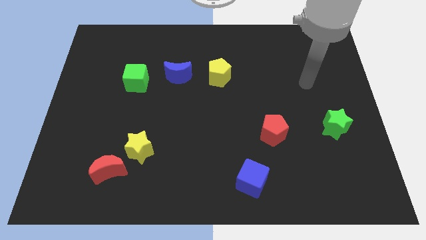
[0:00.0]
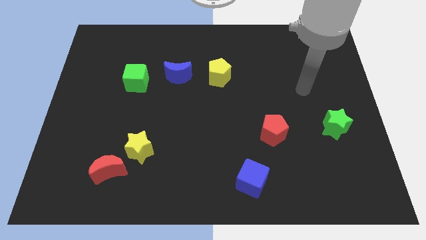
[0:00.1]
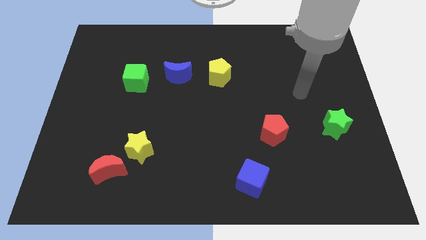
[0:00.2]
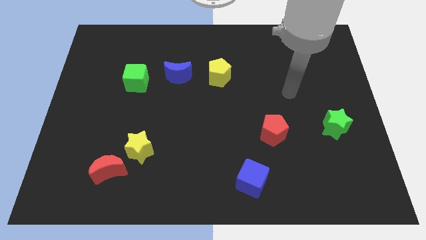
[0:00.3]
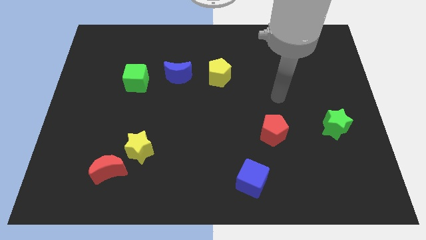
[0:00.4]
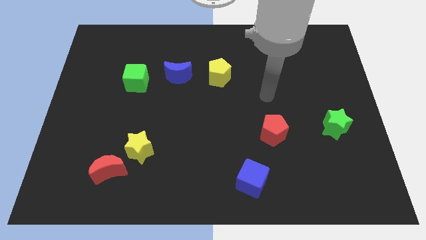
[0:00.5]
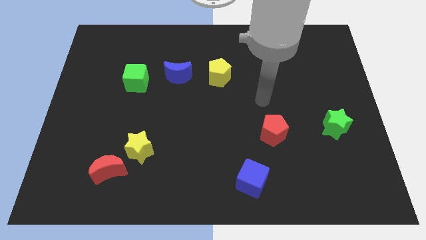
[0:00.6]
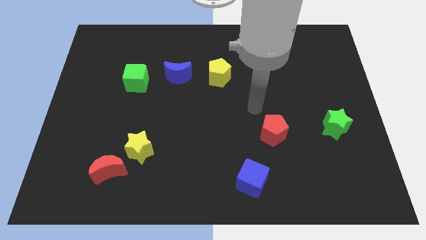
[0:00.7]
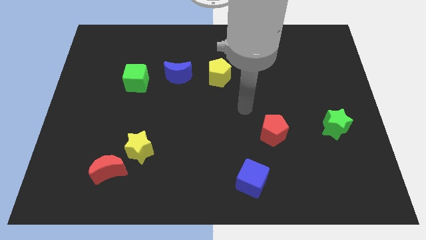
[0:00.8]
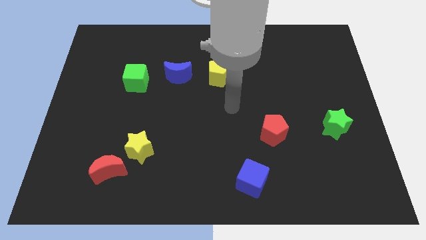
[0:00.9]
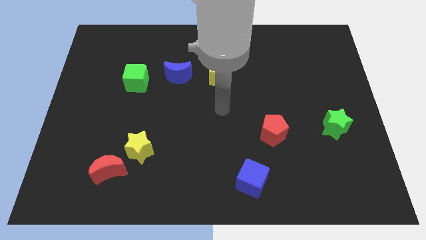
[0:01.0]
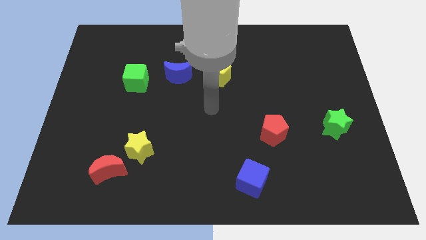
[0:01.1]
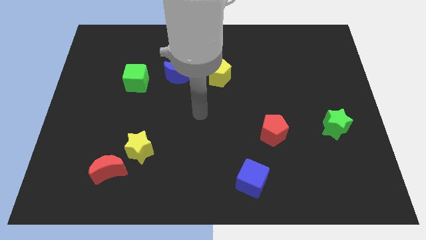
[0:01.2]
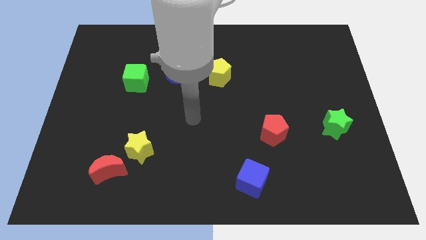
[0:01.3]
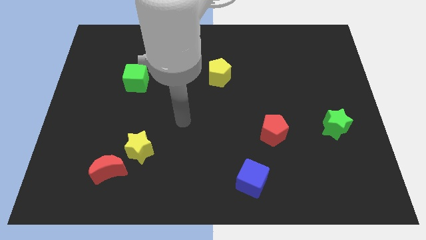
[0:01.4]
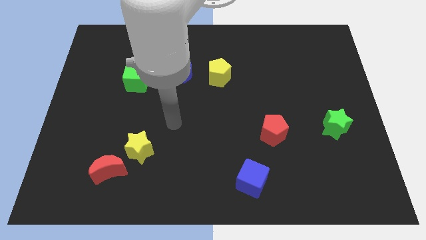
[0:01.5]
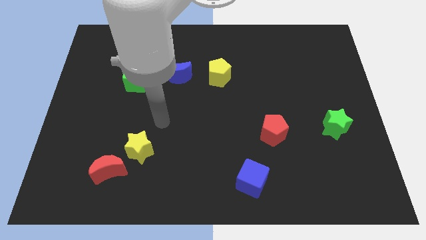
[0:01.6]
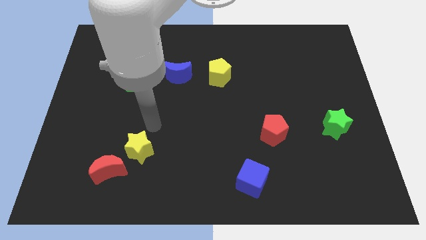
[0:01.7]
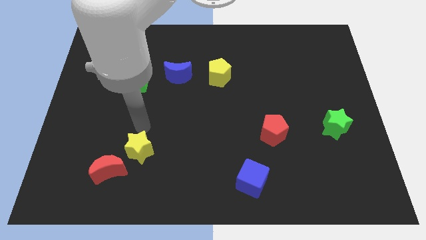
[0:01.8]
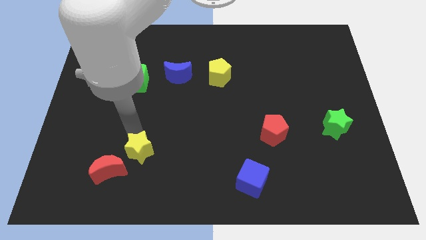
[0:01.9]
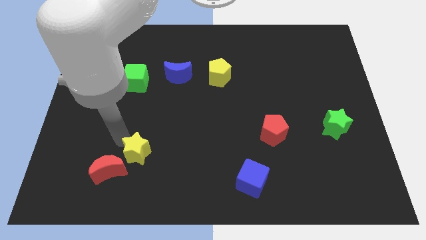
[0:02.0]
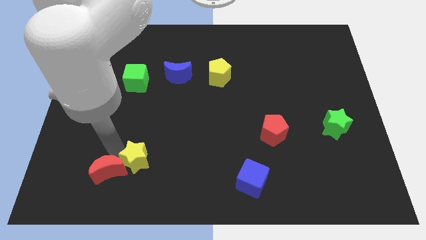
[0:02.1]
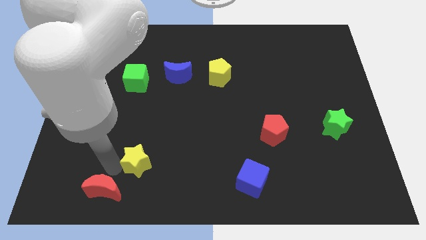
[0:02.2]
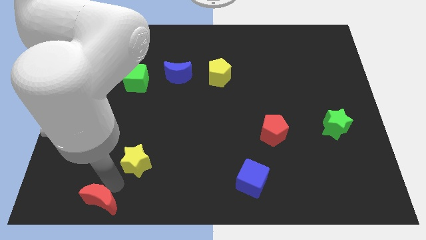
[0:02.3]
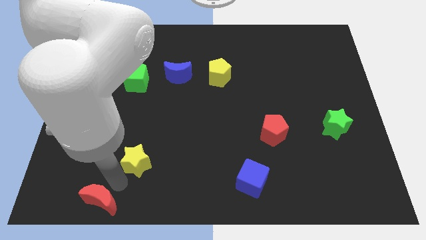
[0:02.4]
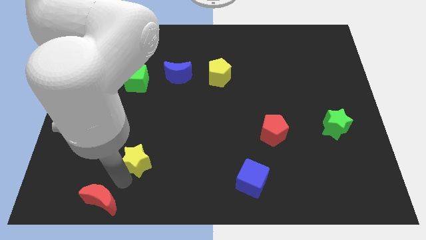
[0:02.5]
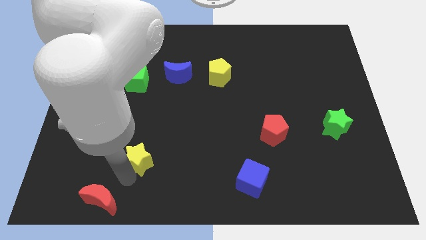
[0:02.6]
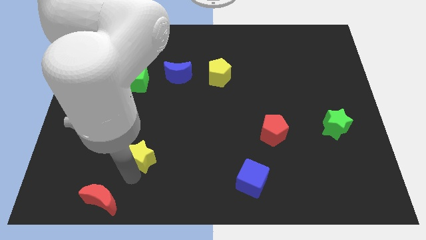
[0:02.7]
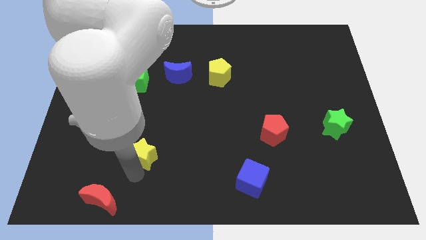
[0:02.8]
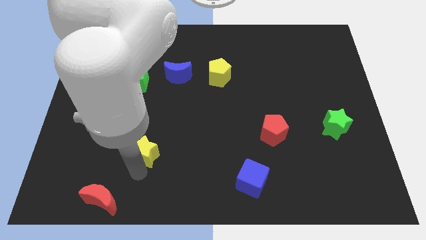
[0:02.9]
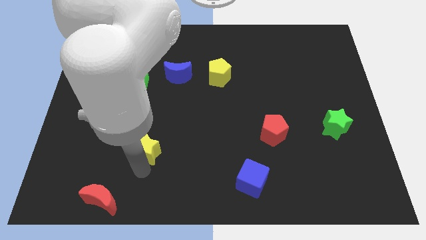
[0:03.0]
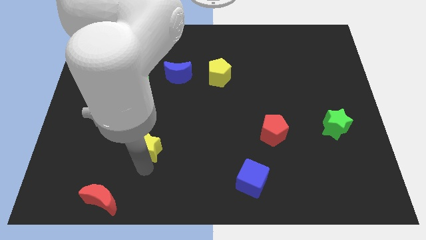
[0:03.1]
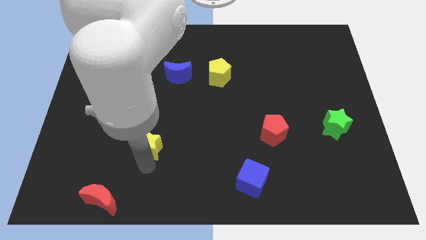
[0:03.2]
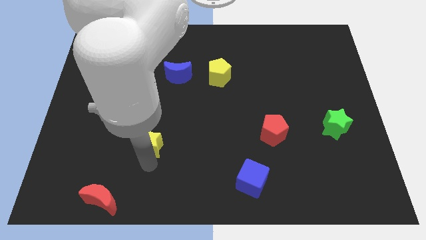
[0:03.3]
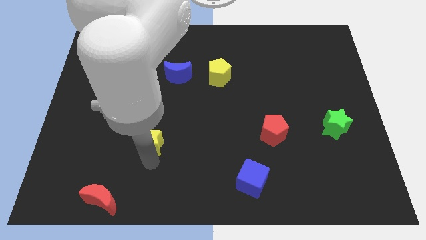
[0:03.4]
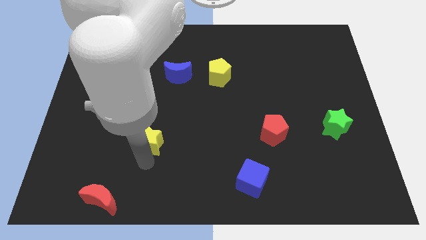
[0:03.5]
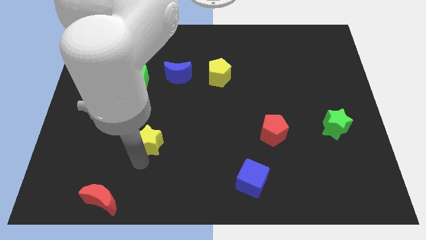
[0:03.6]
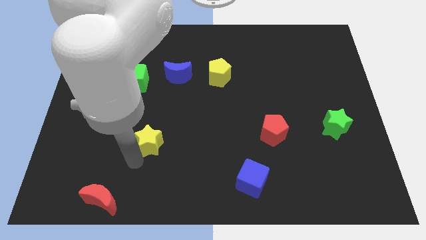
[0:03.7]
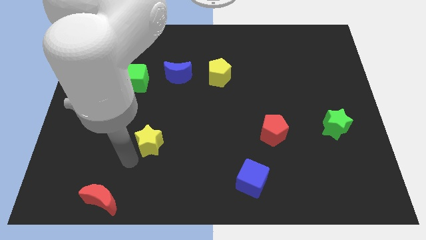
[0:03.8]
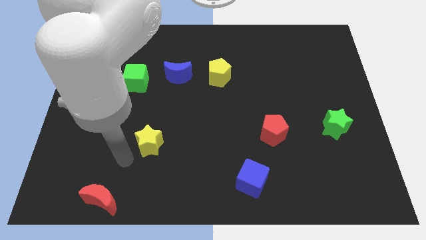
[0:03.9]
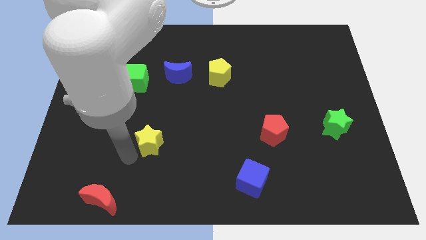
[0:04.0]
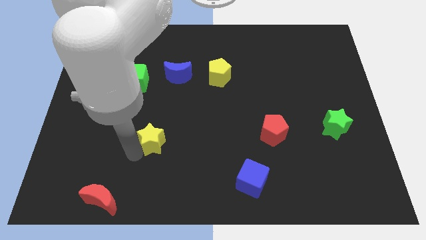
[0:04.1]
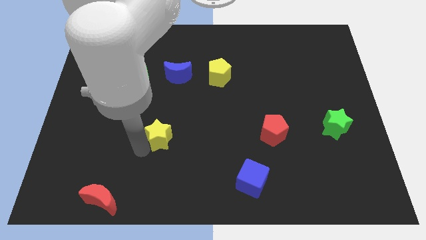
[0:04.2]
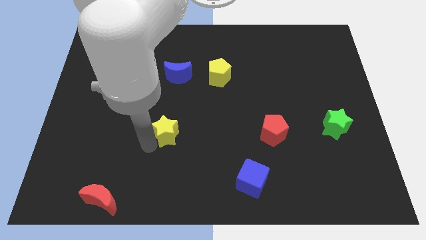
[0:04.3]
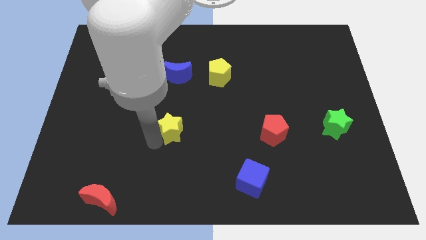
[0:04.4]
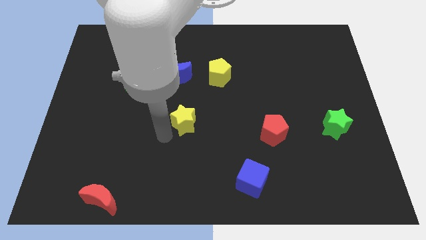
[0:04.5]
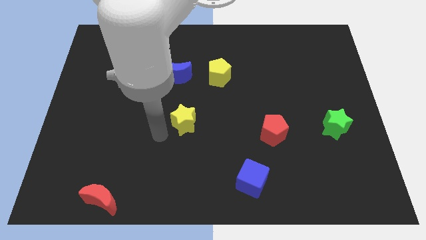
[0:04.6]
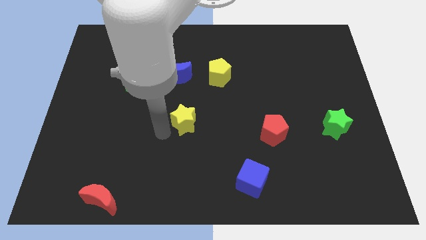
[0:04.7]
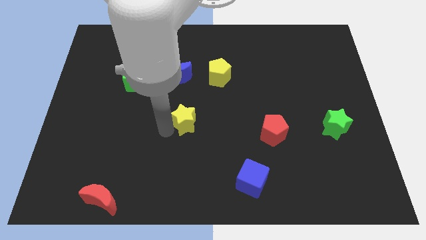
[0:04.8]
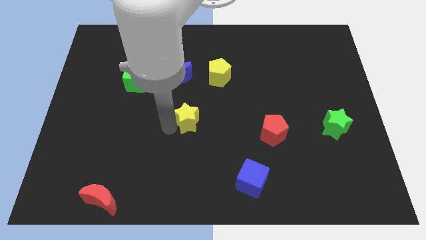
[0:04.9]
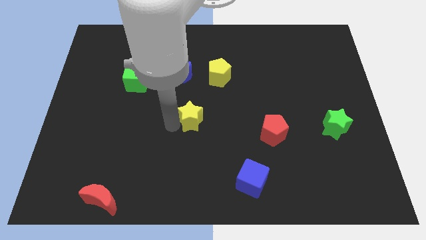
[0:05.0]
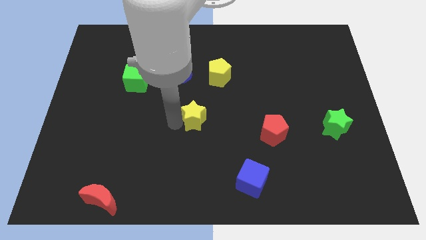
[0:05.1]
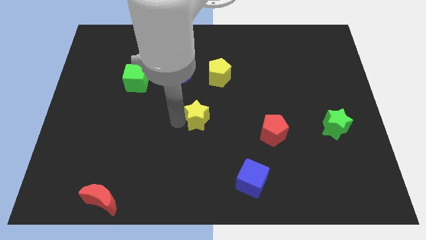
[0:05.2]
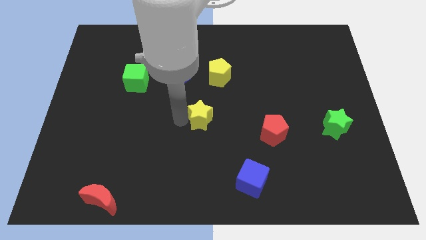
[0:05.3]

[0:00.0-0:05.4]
move the yellow star below the yellow pentagon
